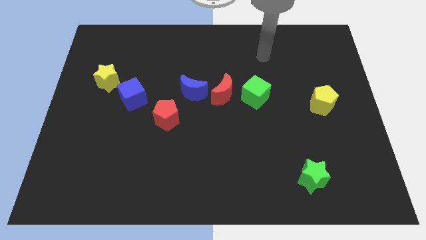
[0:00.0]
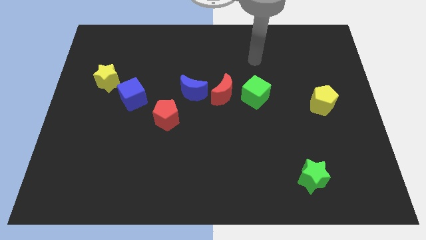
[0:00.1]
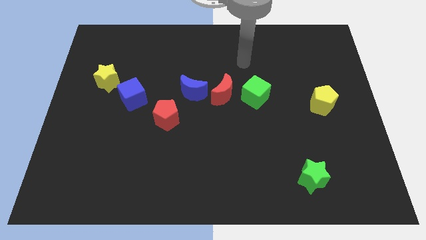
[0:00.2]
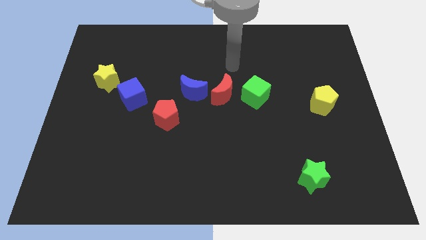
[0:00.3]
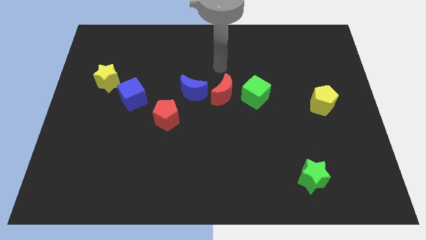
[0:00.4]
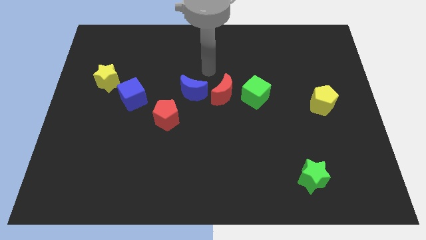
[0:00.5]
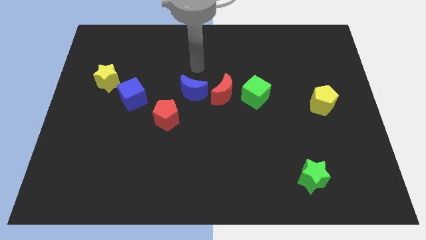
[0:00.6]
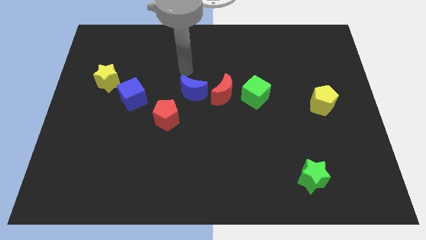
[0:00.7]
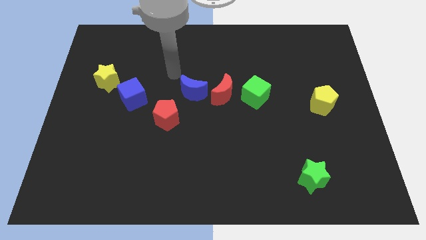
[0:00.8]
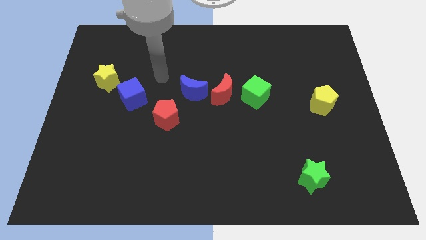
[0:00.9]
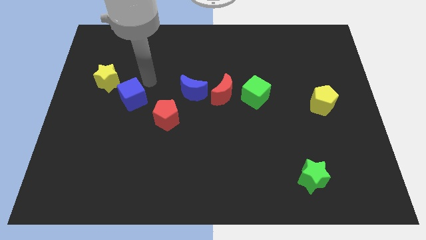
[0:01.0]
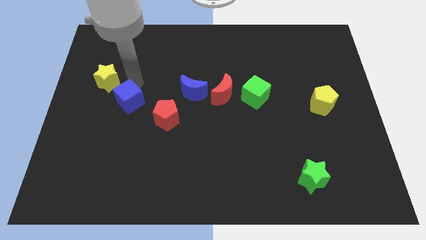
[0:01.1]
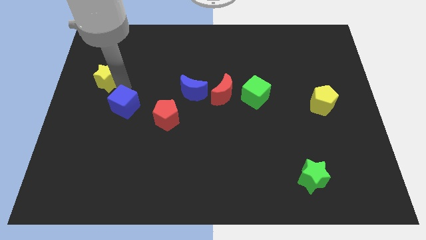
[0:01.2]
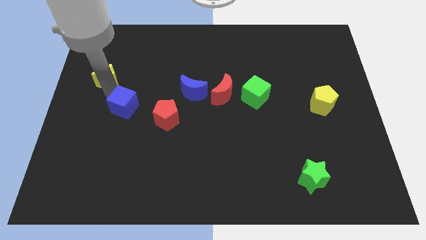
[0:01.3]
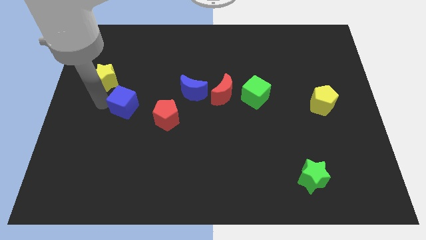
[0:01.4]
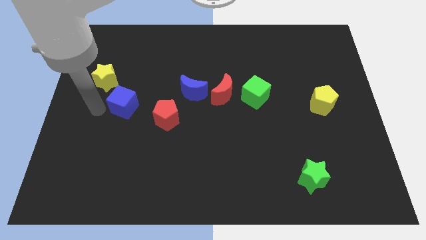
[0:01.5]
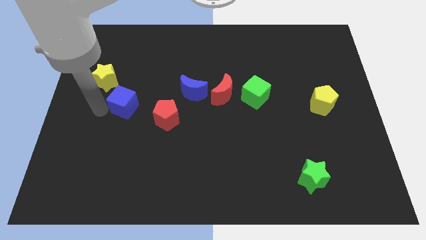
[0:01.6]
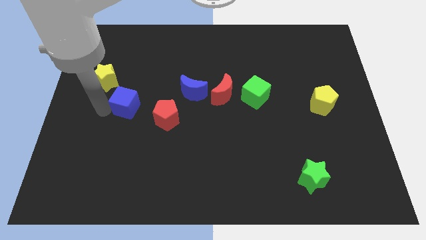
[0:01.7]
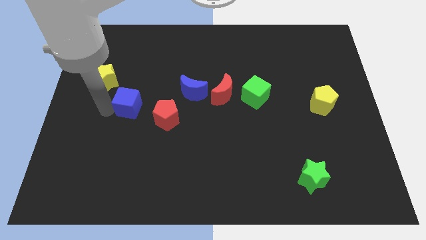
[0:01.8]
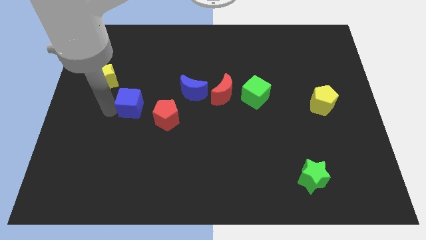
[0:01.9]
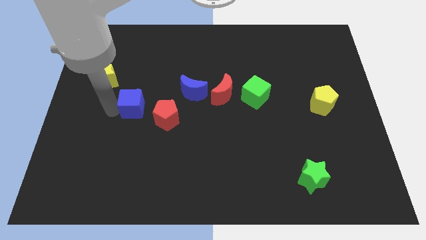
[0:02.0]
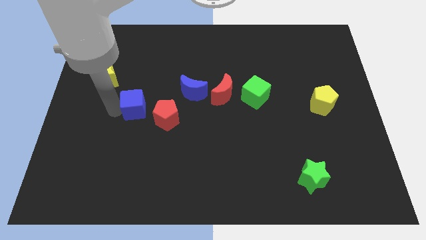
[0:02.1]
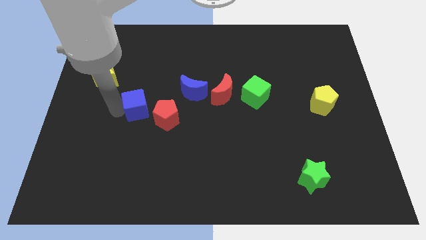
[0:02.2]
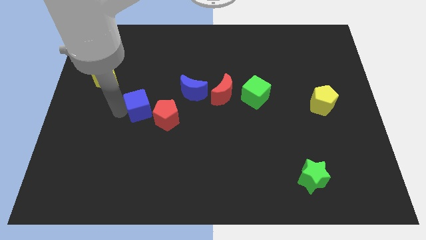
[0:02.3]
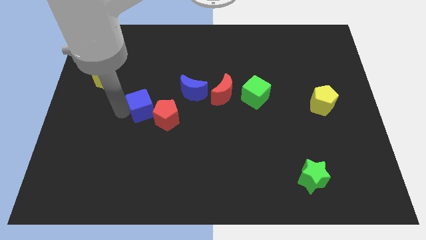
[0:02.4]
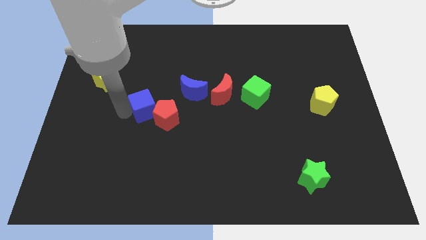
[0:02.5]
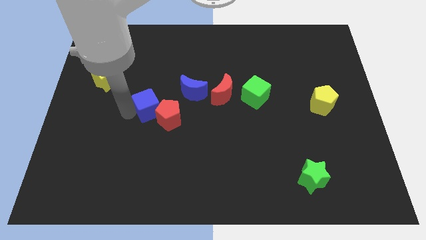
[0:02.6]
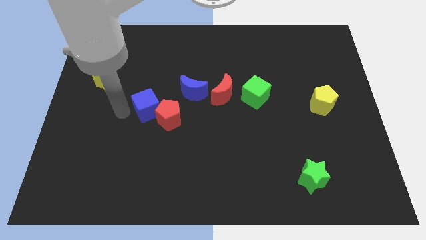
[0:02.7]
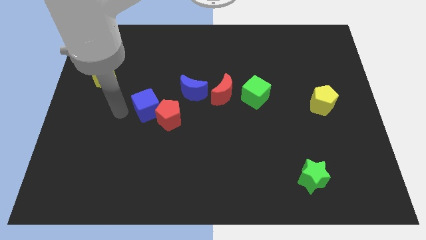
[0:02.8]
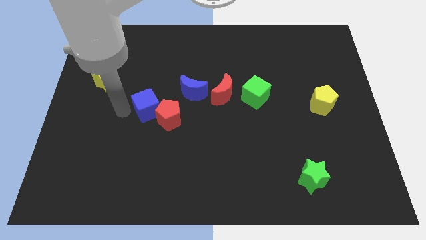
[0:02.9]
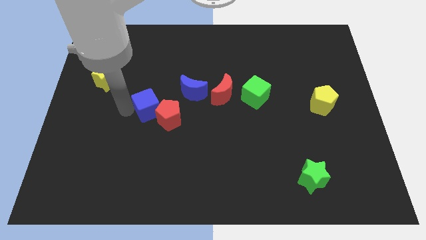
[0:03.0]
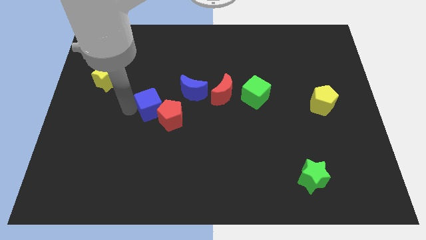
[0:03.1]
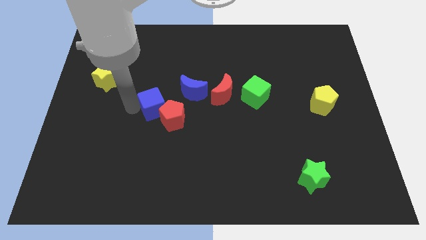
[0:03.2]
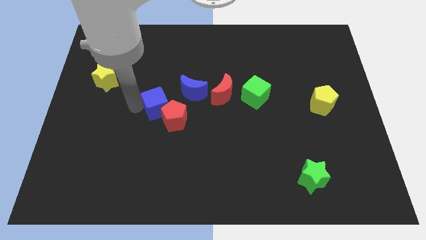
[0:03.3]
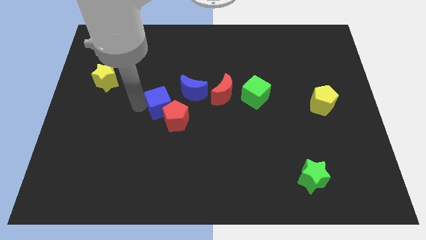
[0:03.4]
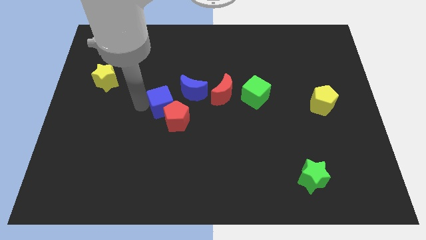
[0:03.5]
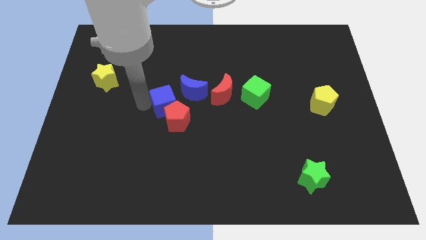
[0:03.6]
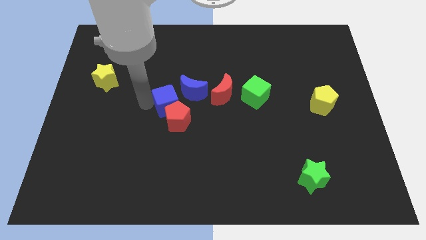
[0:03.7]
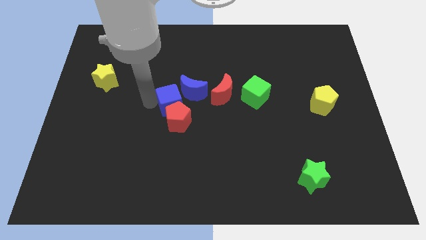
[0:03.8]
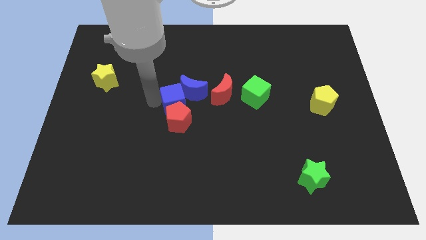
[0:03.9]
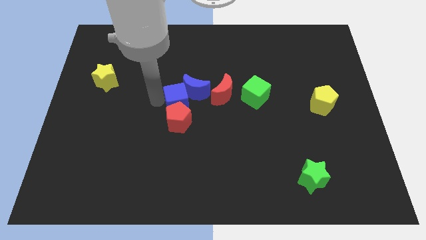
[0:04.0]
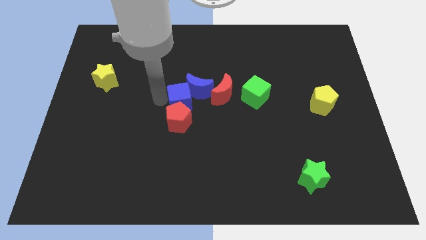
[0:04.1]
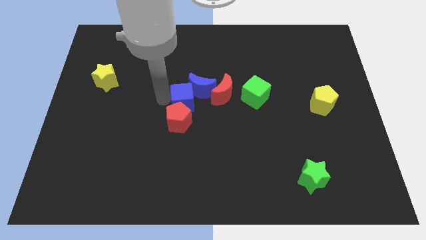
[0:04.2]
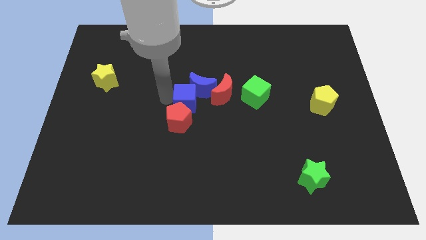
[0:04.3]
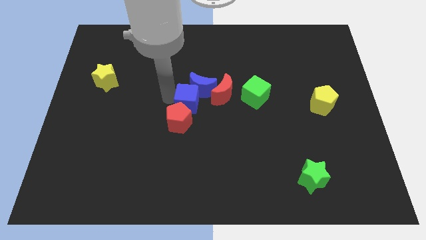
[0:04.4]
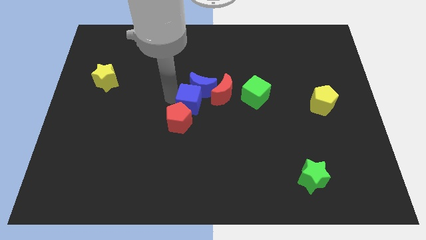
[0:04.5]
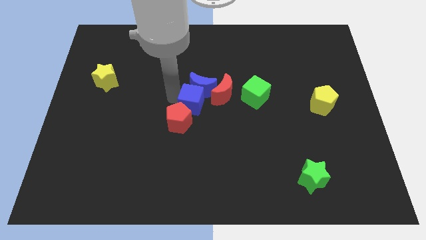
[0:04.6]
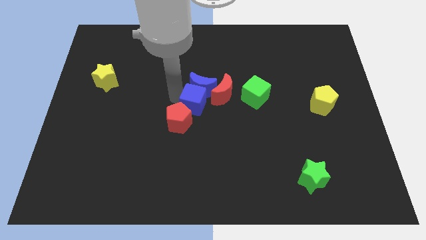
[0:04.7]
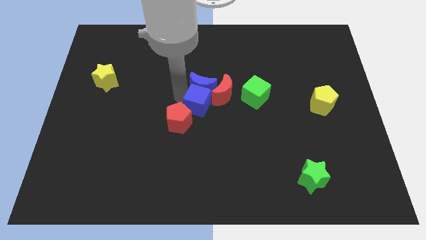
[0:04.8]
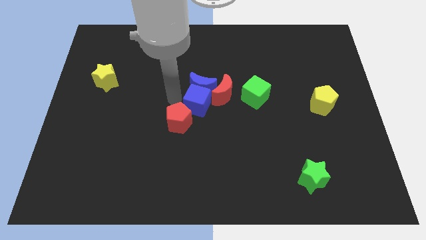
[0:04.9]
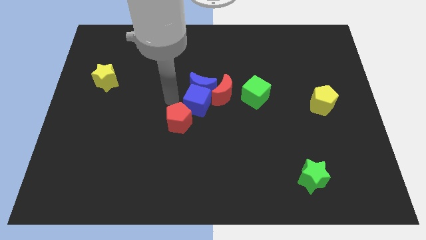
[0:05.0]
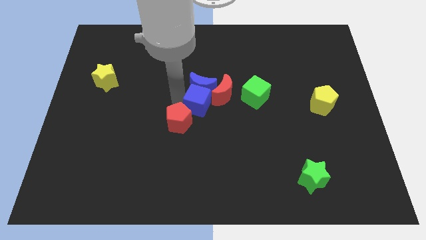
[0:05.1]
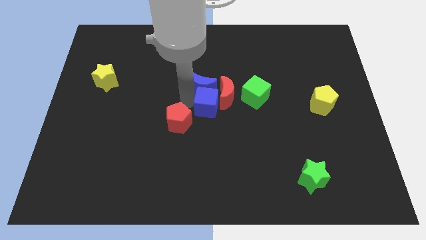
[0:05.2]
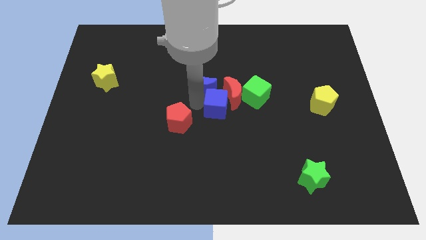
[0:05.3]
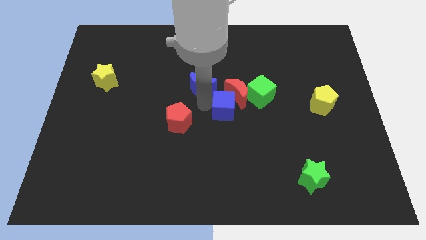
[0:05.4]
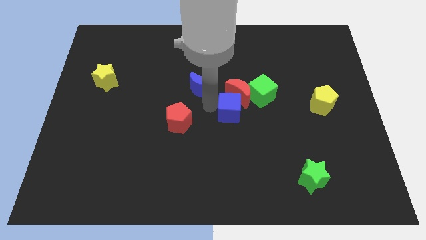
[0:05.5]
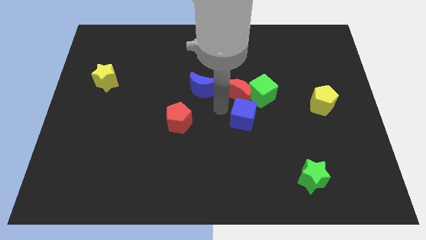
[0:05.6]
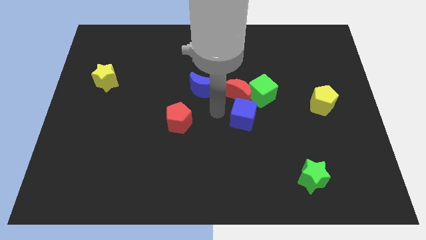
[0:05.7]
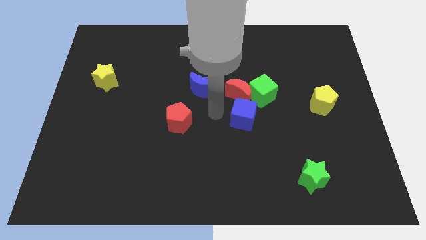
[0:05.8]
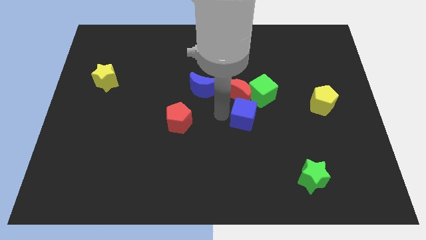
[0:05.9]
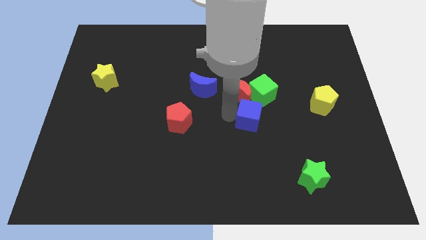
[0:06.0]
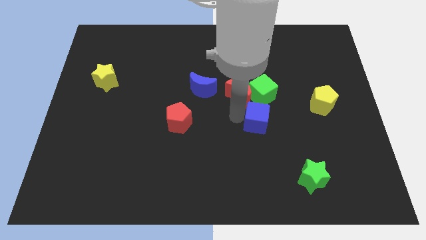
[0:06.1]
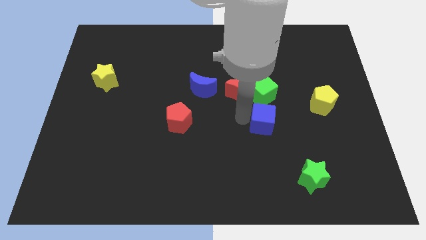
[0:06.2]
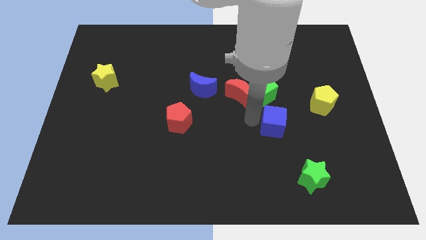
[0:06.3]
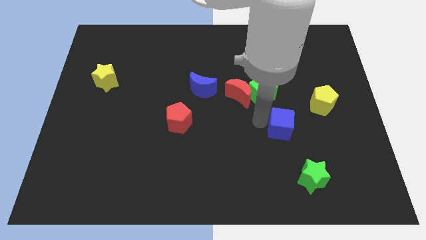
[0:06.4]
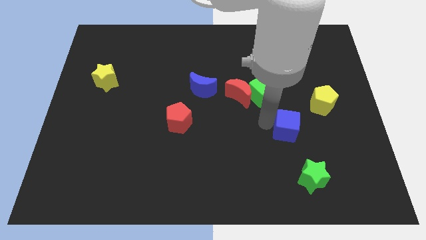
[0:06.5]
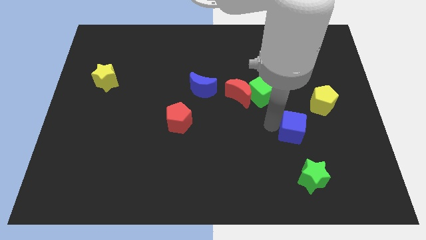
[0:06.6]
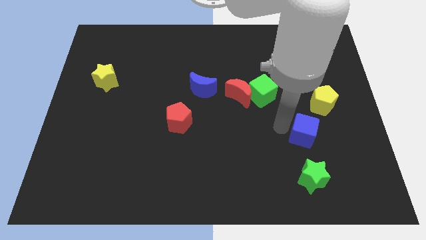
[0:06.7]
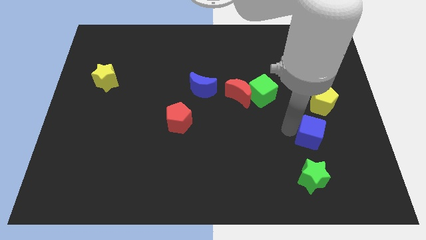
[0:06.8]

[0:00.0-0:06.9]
slide the blue cube to the bottom of the yellow pentagon
